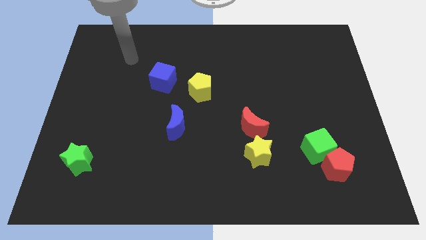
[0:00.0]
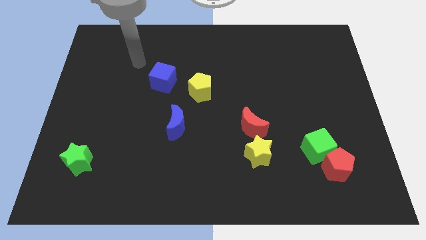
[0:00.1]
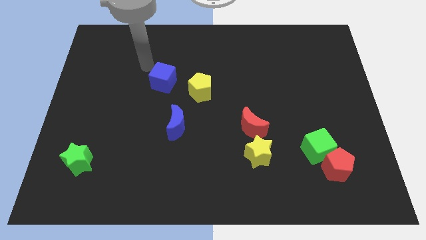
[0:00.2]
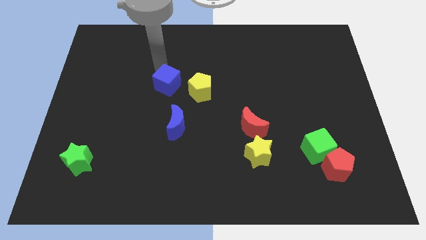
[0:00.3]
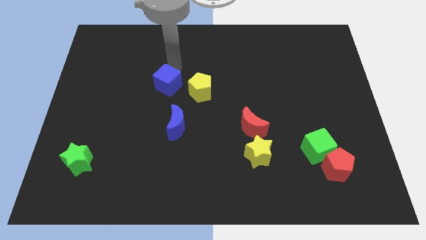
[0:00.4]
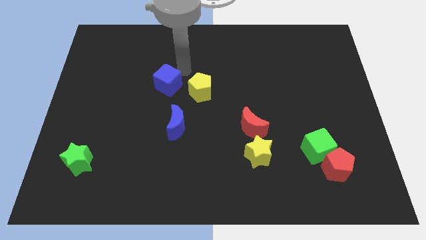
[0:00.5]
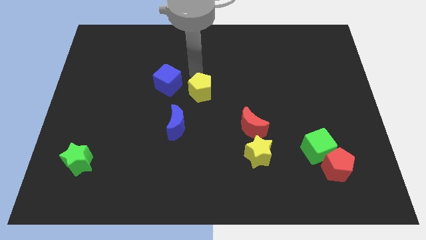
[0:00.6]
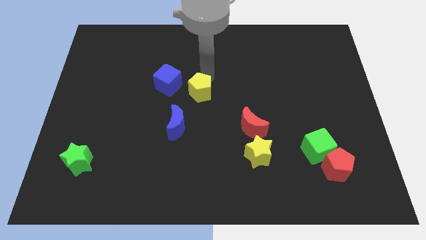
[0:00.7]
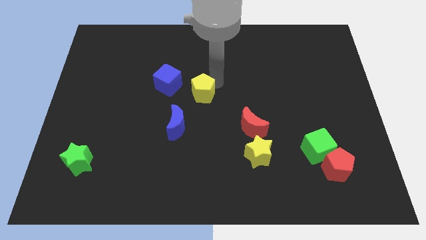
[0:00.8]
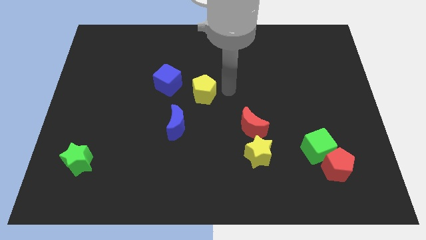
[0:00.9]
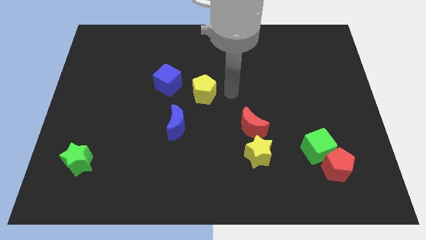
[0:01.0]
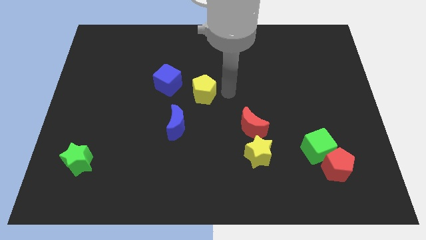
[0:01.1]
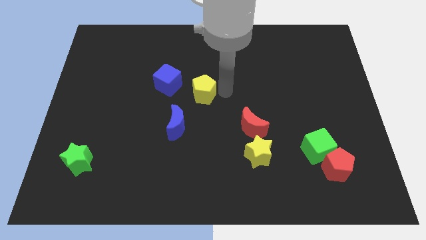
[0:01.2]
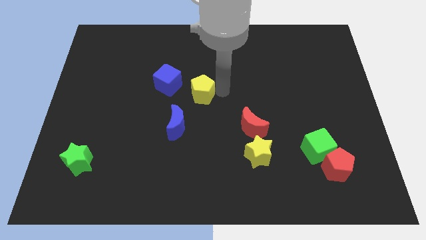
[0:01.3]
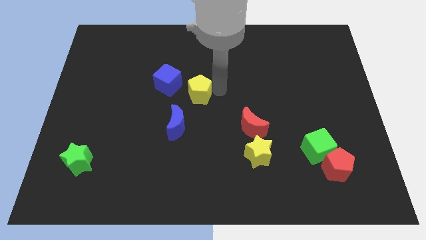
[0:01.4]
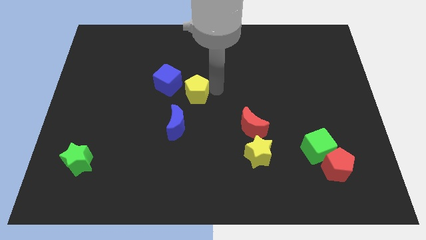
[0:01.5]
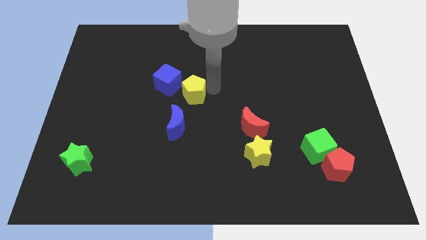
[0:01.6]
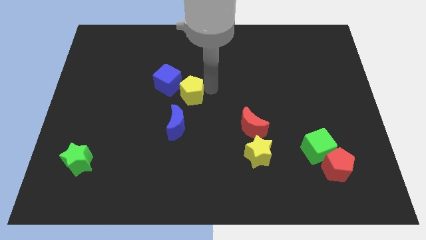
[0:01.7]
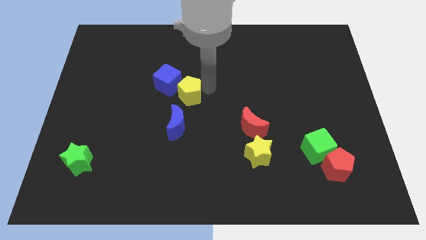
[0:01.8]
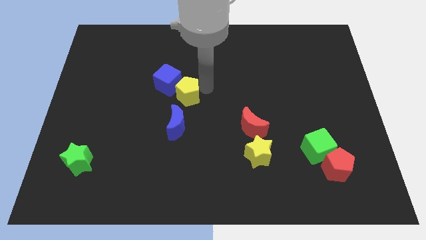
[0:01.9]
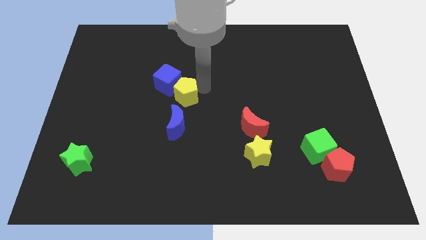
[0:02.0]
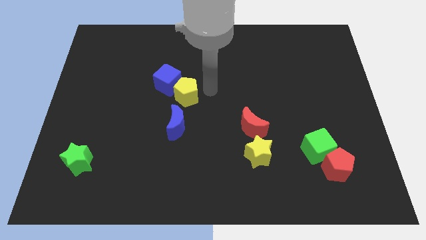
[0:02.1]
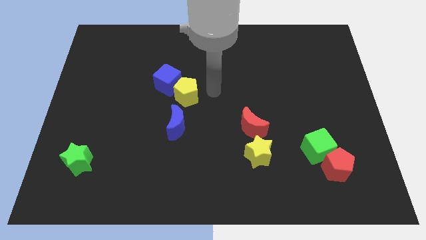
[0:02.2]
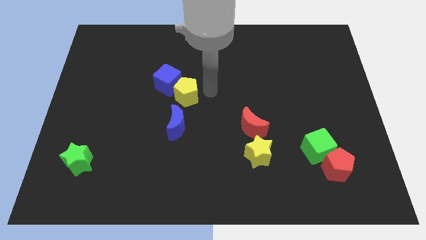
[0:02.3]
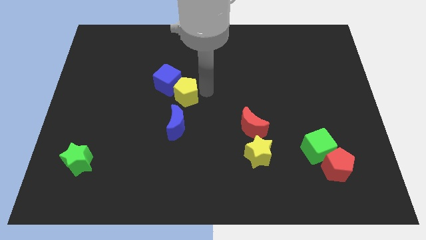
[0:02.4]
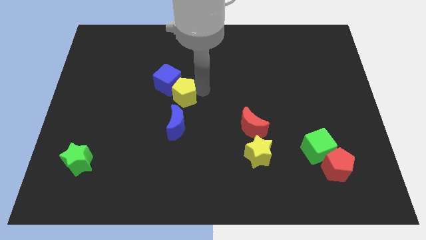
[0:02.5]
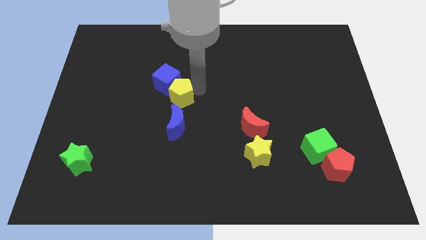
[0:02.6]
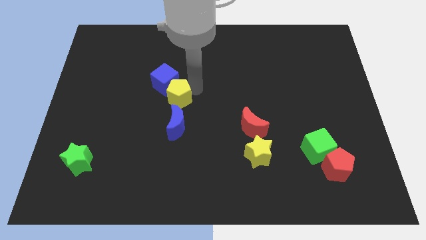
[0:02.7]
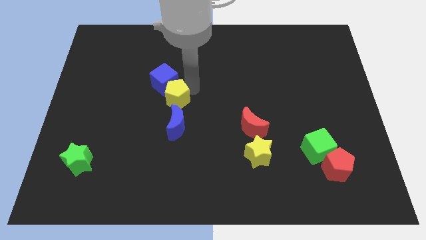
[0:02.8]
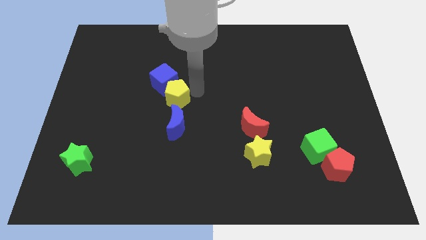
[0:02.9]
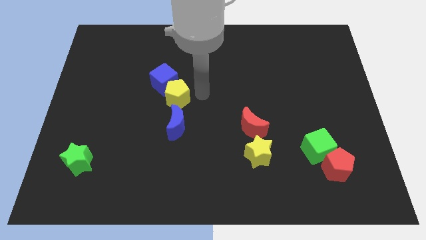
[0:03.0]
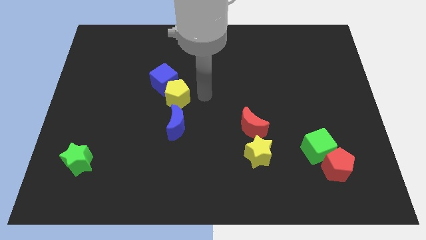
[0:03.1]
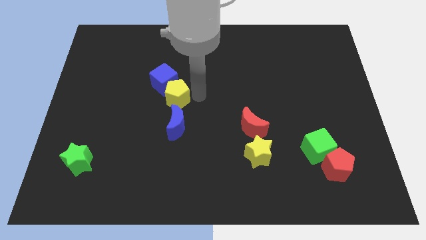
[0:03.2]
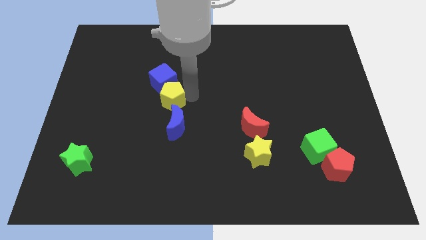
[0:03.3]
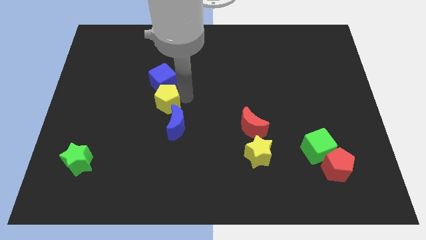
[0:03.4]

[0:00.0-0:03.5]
slightly push the yellow pentagon left

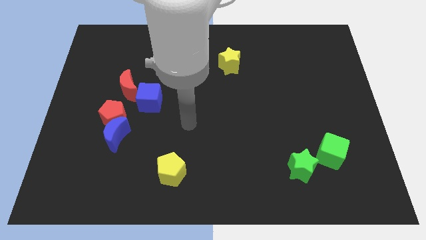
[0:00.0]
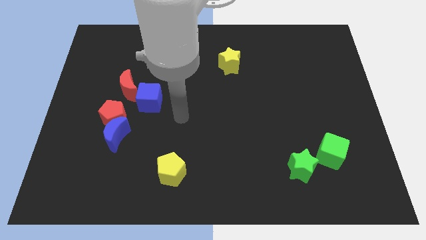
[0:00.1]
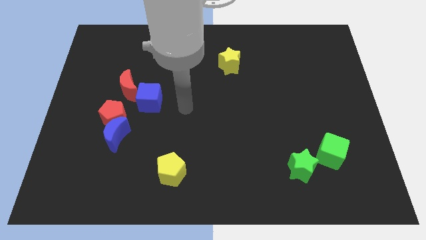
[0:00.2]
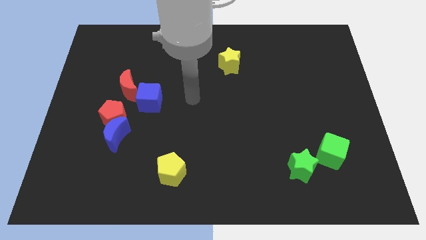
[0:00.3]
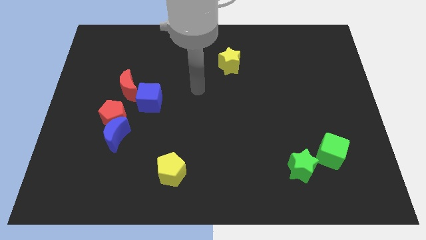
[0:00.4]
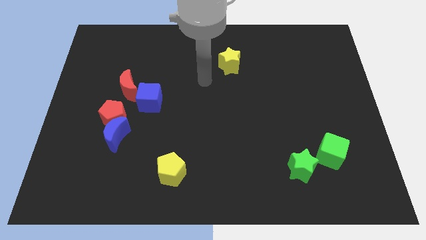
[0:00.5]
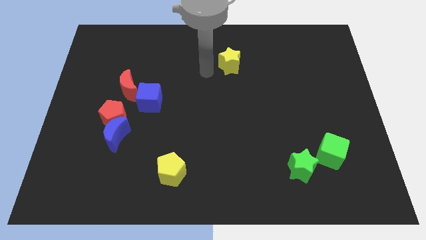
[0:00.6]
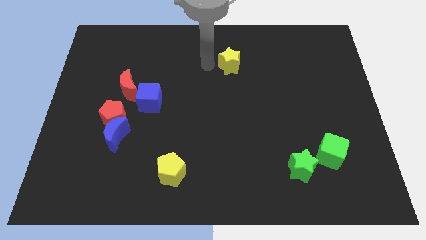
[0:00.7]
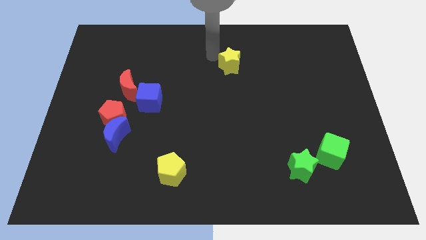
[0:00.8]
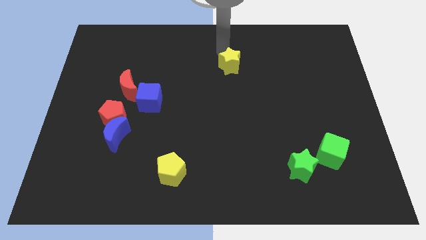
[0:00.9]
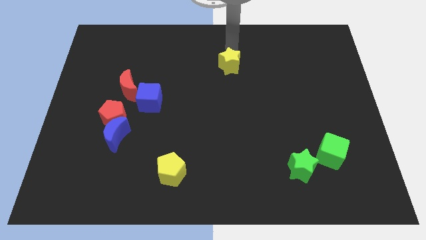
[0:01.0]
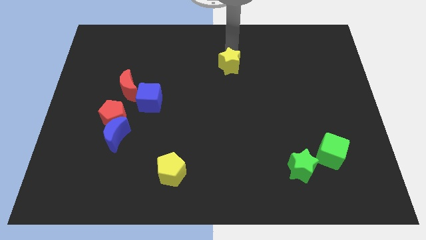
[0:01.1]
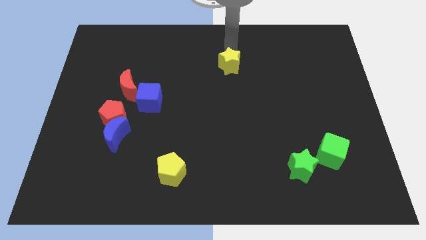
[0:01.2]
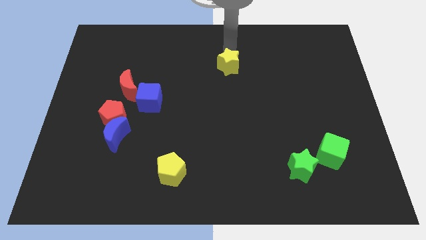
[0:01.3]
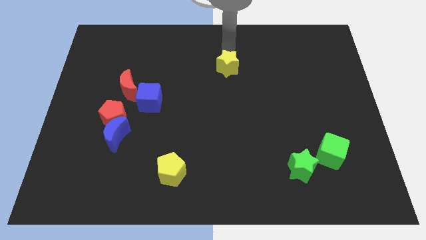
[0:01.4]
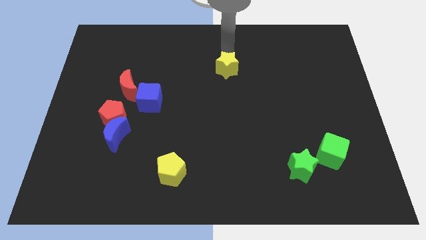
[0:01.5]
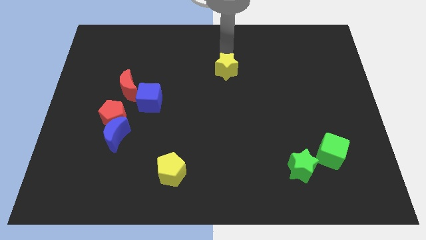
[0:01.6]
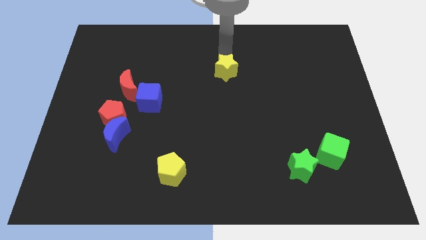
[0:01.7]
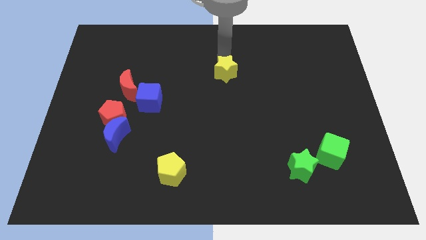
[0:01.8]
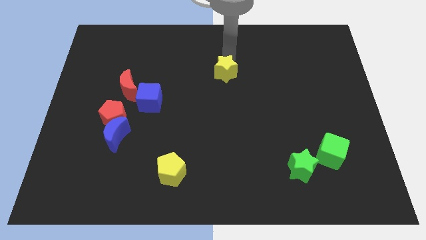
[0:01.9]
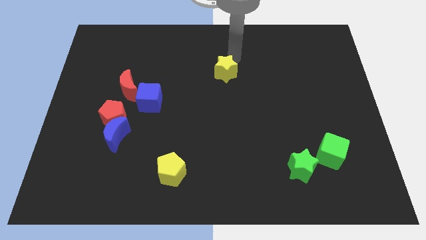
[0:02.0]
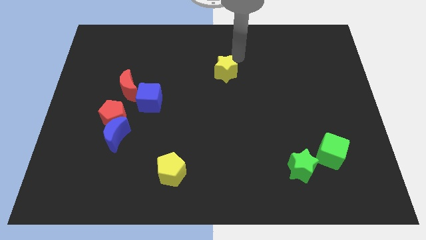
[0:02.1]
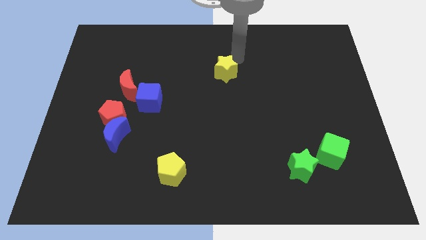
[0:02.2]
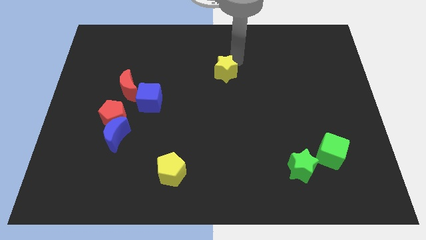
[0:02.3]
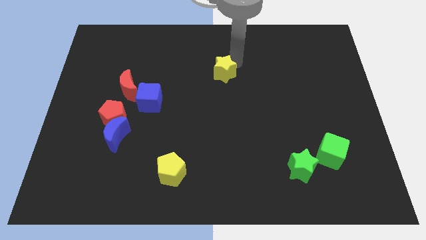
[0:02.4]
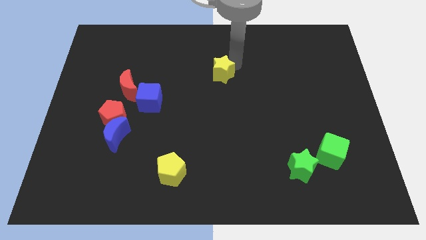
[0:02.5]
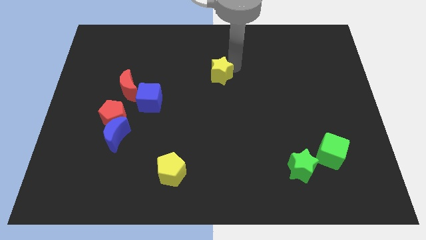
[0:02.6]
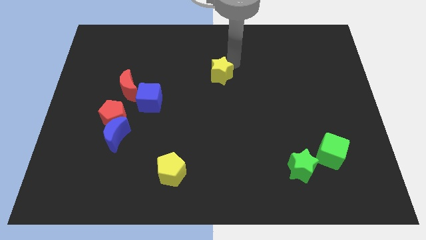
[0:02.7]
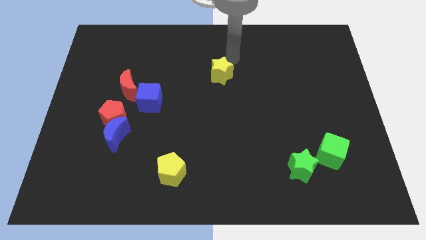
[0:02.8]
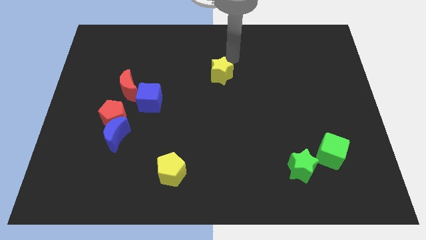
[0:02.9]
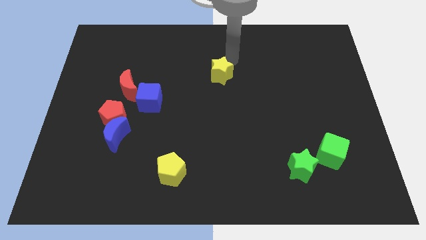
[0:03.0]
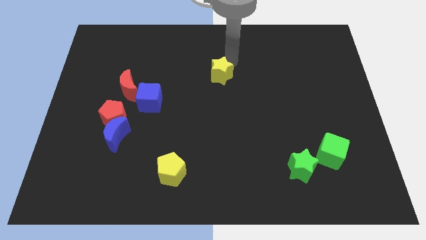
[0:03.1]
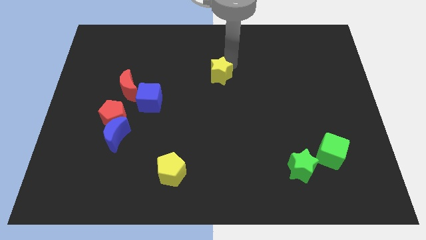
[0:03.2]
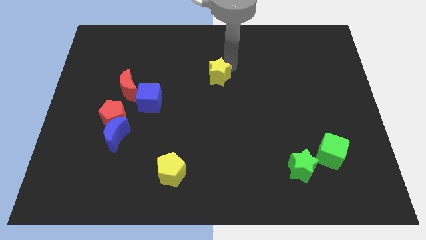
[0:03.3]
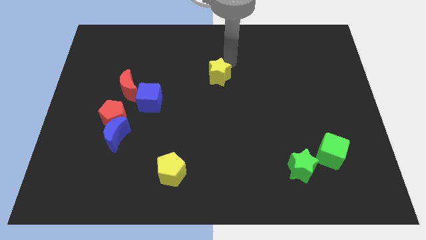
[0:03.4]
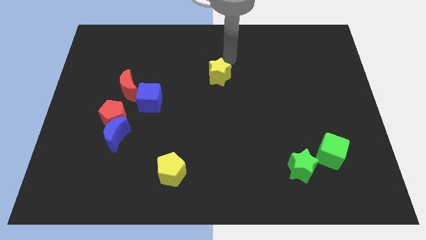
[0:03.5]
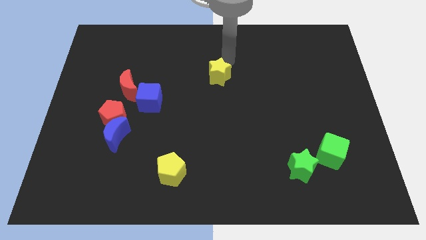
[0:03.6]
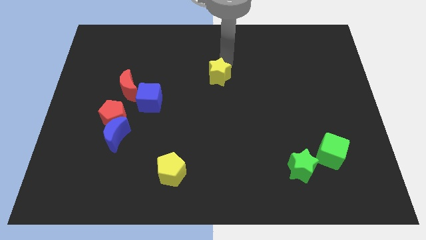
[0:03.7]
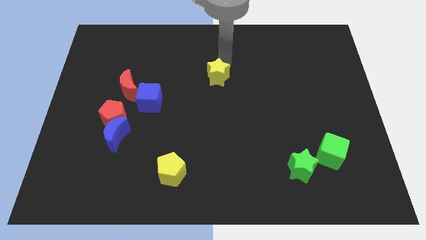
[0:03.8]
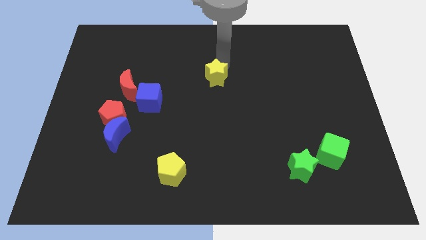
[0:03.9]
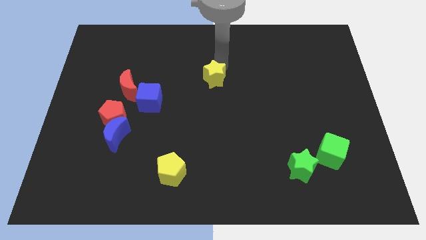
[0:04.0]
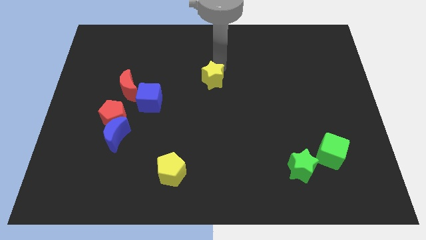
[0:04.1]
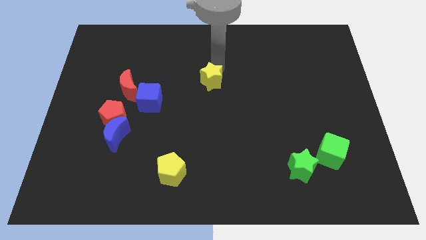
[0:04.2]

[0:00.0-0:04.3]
move the yellow star slightly down and to the left

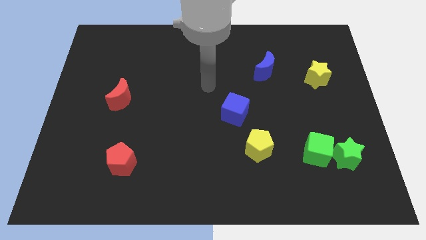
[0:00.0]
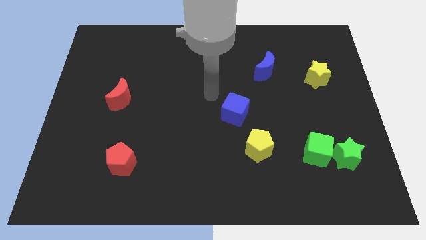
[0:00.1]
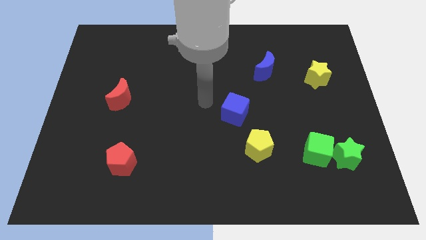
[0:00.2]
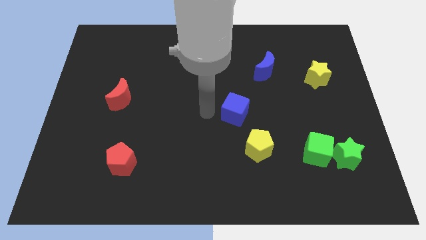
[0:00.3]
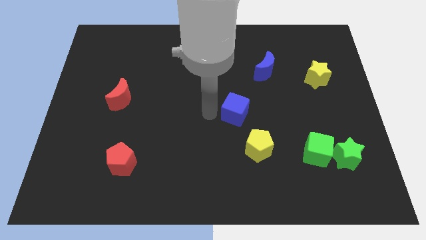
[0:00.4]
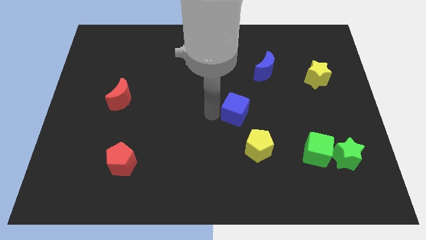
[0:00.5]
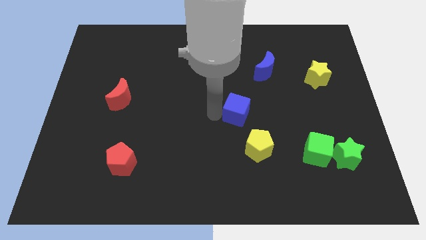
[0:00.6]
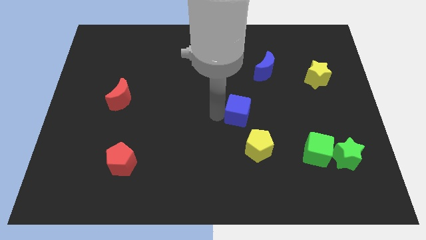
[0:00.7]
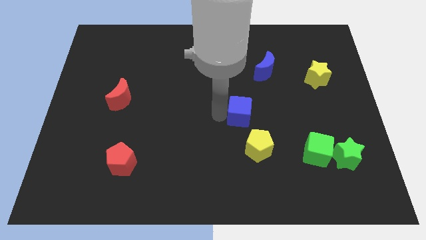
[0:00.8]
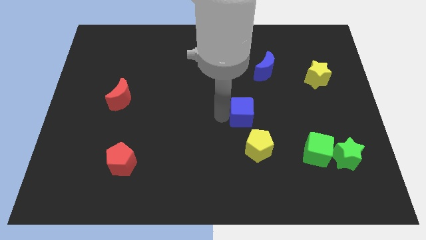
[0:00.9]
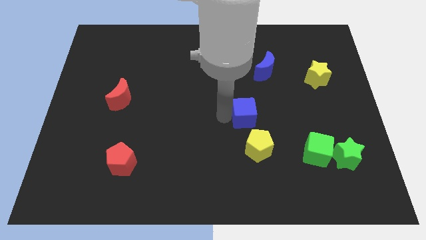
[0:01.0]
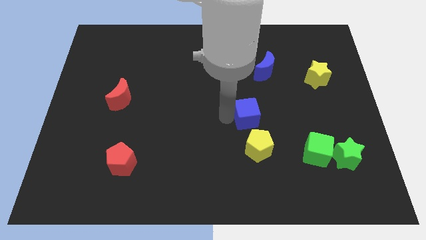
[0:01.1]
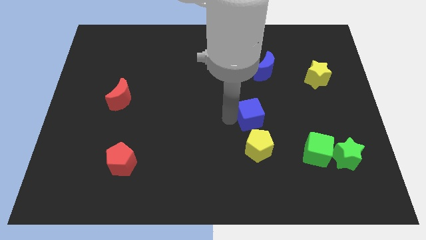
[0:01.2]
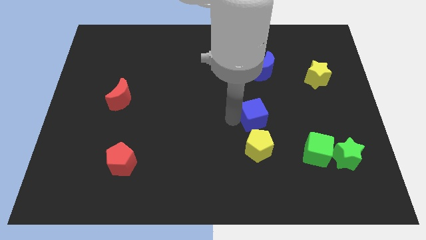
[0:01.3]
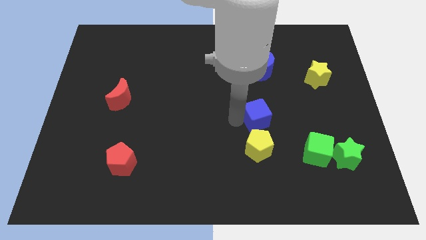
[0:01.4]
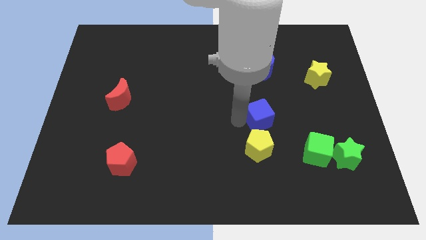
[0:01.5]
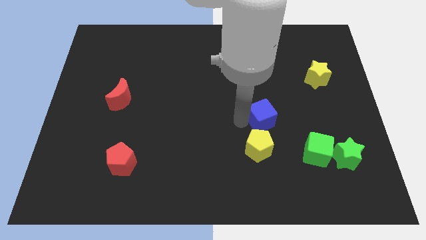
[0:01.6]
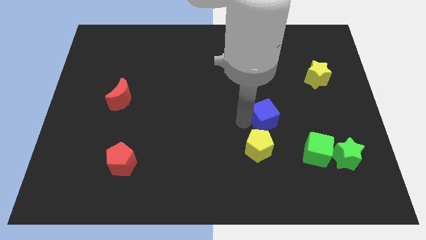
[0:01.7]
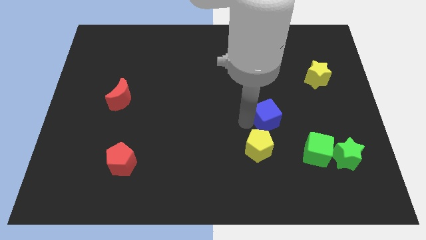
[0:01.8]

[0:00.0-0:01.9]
move the blue cube somewhat right
